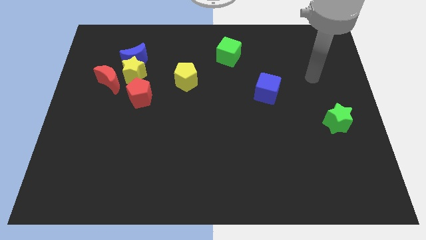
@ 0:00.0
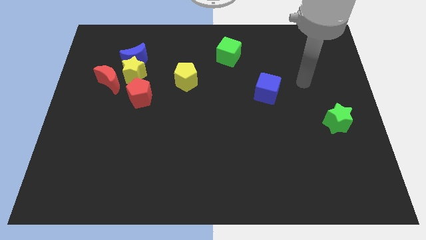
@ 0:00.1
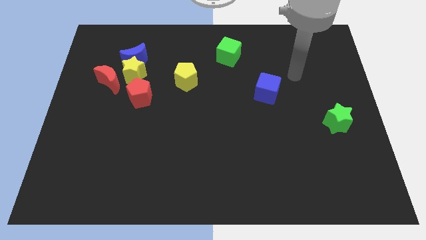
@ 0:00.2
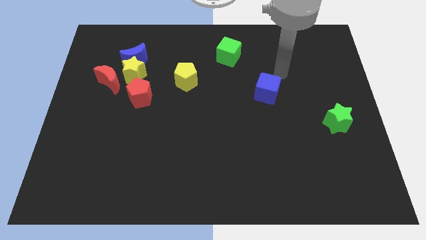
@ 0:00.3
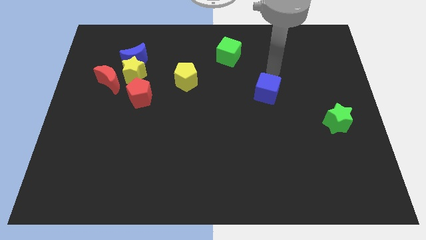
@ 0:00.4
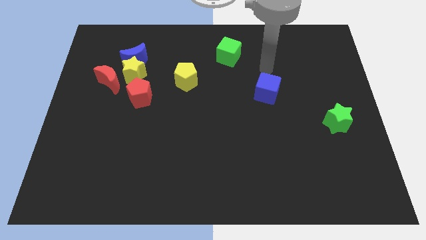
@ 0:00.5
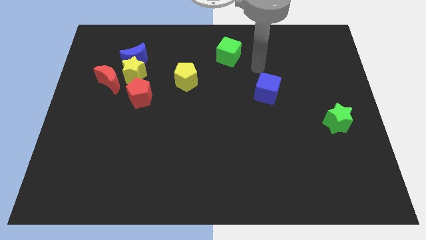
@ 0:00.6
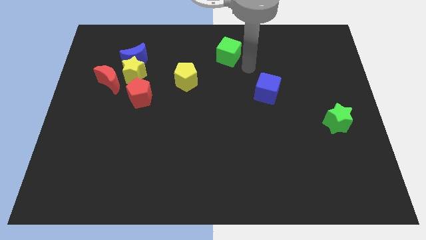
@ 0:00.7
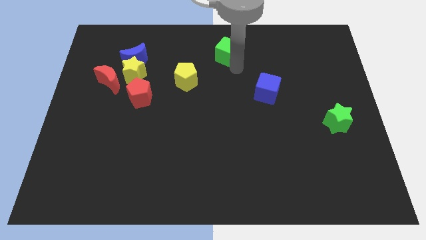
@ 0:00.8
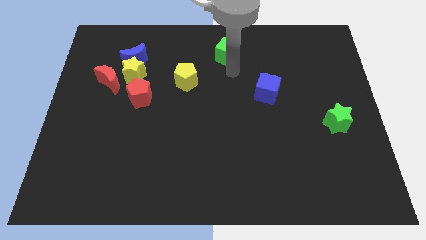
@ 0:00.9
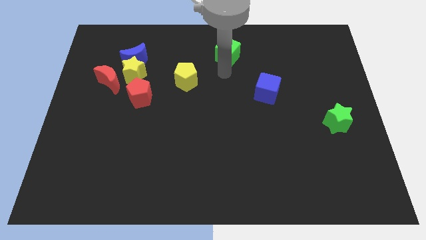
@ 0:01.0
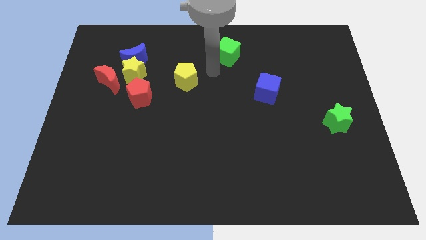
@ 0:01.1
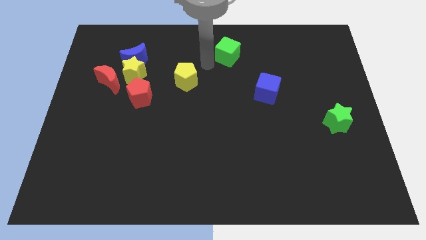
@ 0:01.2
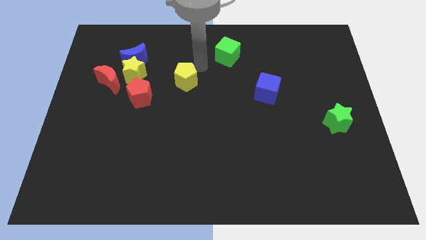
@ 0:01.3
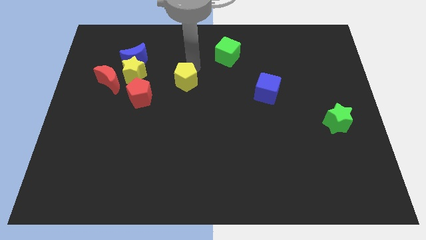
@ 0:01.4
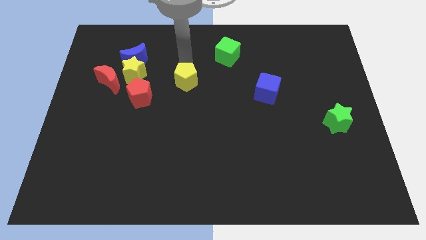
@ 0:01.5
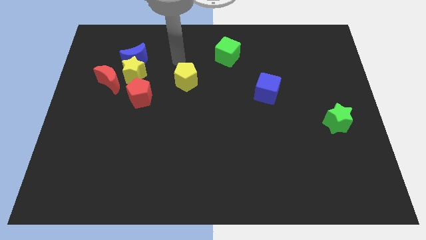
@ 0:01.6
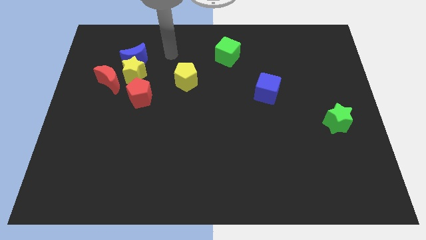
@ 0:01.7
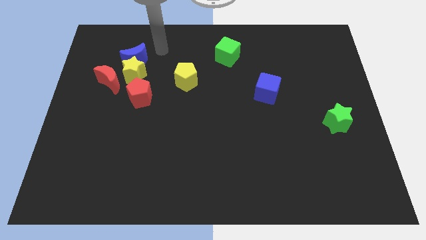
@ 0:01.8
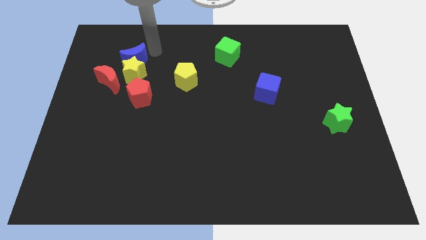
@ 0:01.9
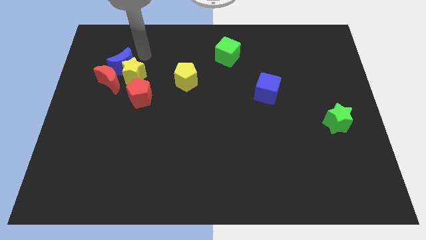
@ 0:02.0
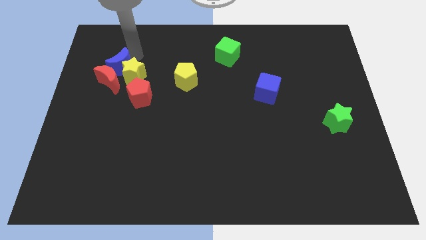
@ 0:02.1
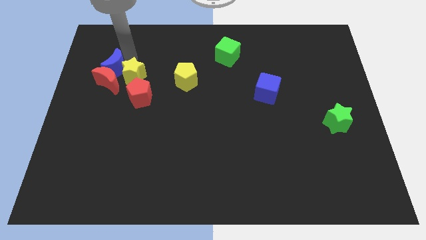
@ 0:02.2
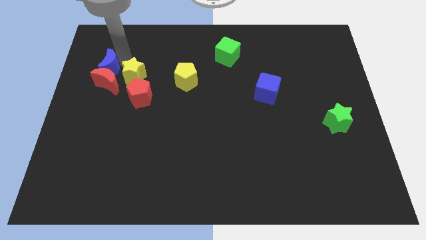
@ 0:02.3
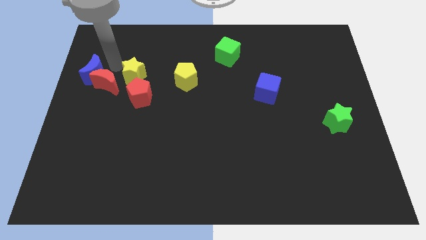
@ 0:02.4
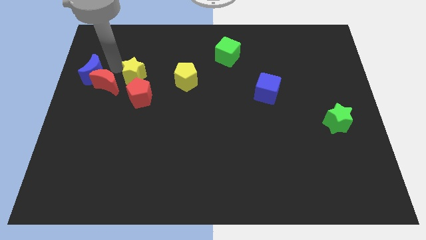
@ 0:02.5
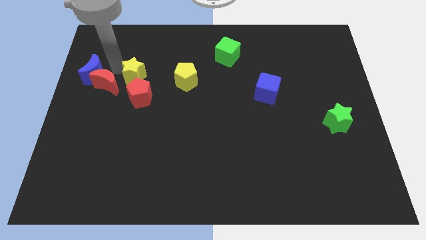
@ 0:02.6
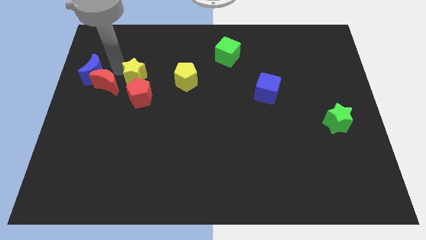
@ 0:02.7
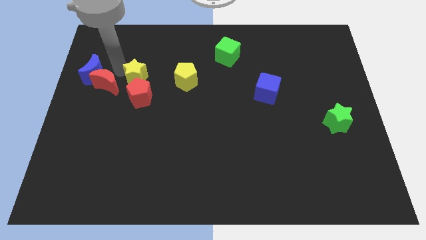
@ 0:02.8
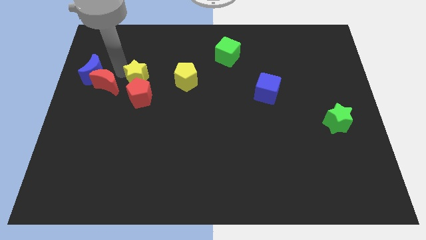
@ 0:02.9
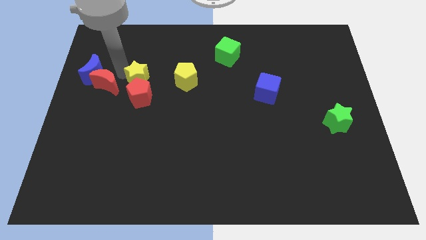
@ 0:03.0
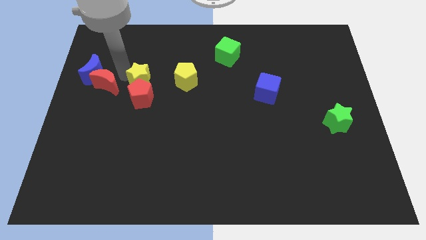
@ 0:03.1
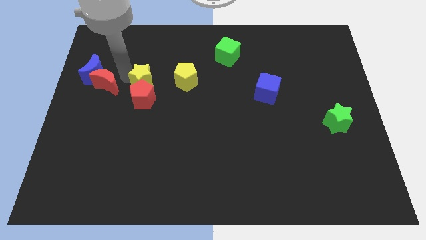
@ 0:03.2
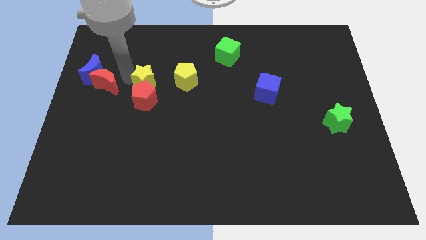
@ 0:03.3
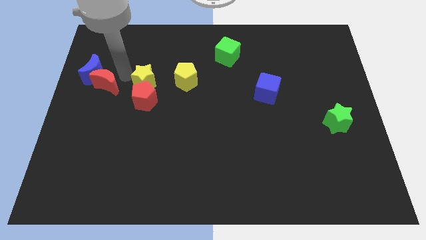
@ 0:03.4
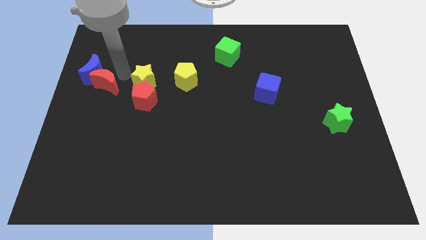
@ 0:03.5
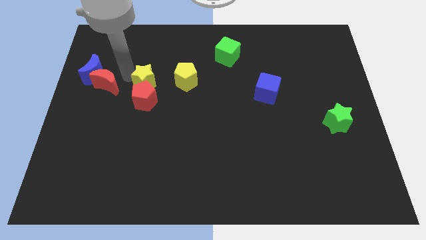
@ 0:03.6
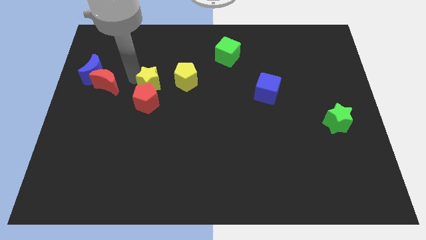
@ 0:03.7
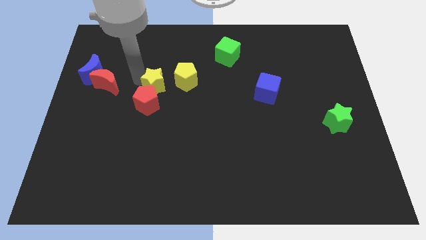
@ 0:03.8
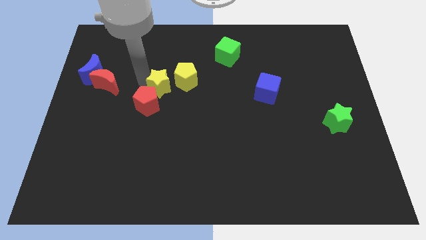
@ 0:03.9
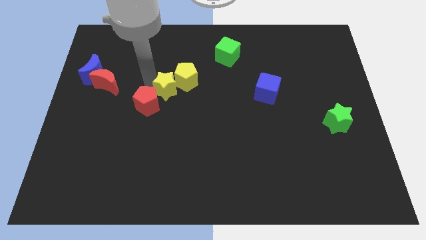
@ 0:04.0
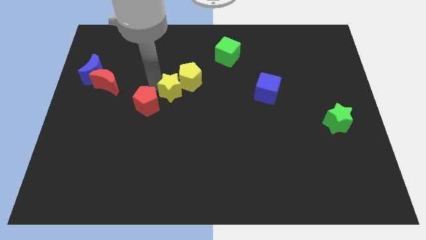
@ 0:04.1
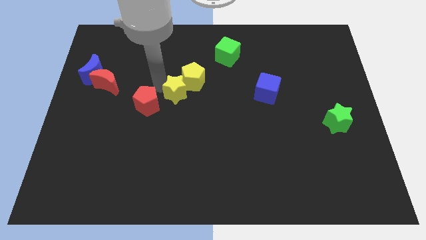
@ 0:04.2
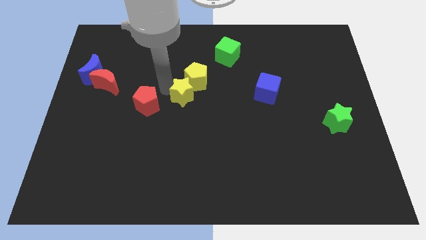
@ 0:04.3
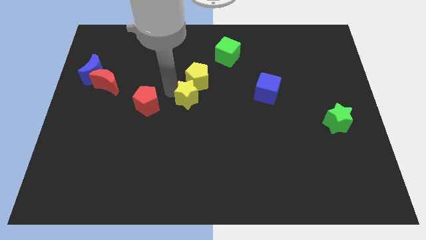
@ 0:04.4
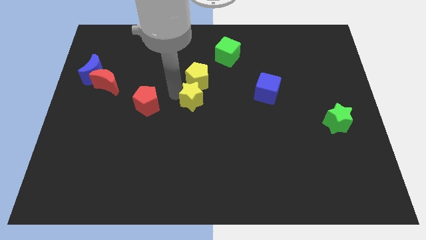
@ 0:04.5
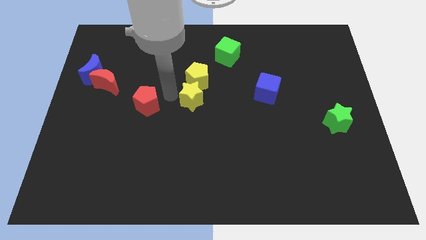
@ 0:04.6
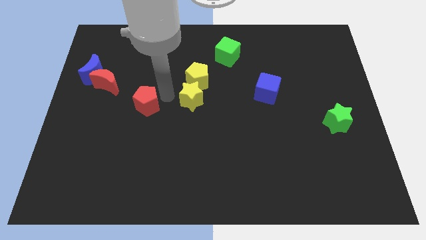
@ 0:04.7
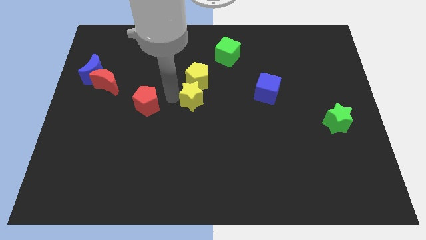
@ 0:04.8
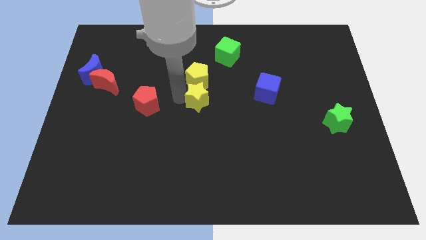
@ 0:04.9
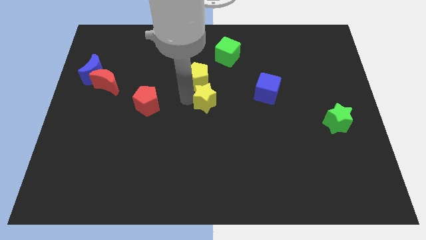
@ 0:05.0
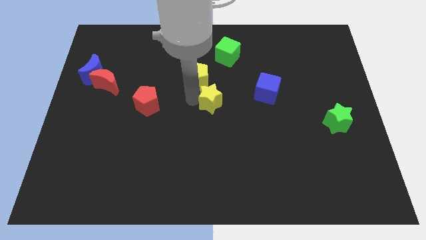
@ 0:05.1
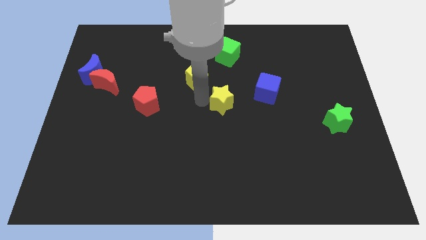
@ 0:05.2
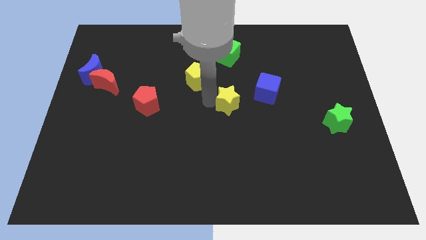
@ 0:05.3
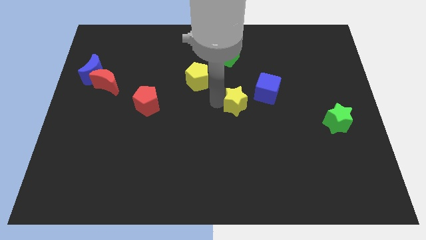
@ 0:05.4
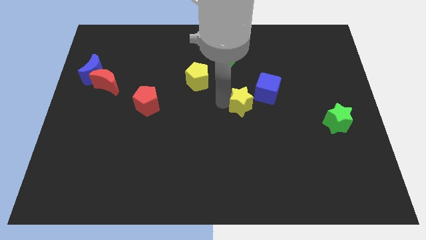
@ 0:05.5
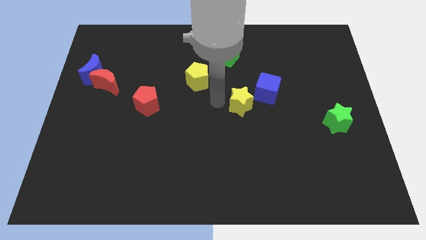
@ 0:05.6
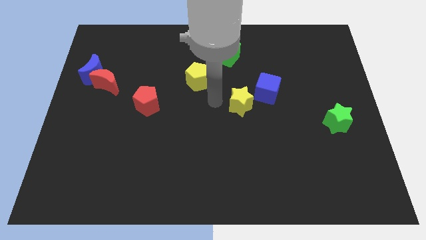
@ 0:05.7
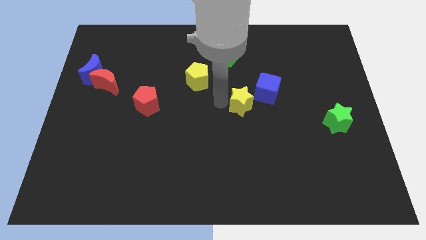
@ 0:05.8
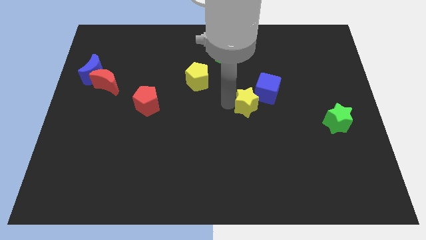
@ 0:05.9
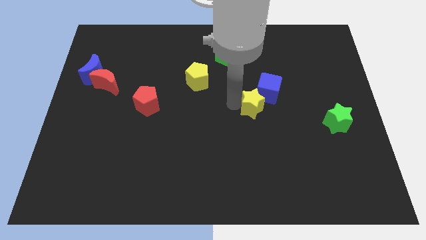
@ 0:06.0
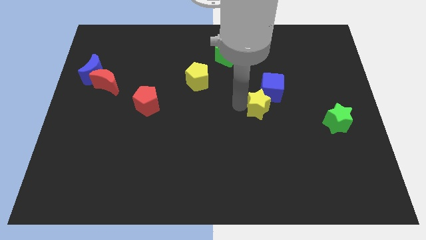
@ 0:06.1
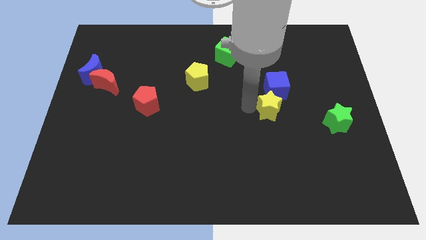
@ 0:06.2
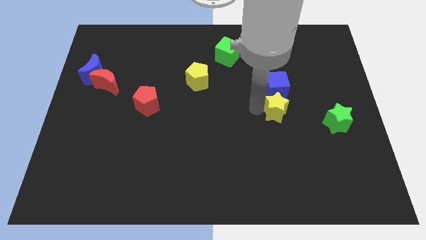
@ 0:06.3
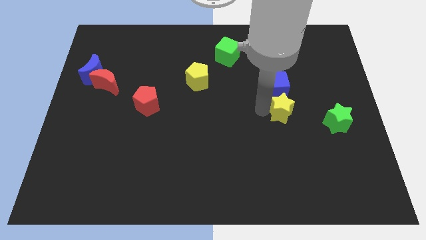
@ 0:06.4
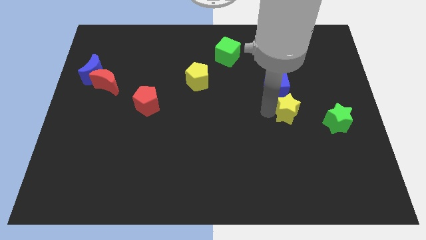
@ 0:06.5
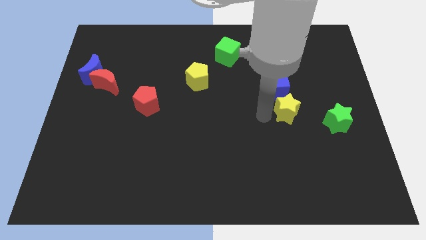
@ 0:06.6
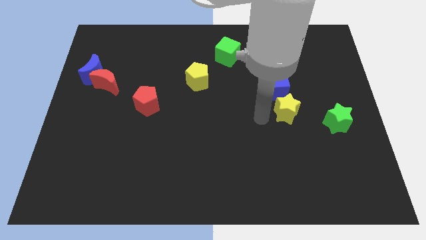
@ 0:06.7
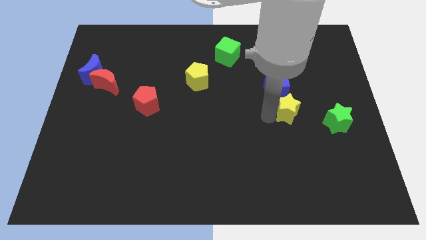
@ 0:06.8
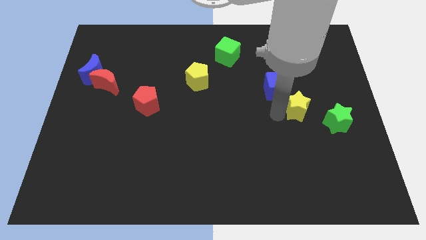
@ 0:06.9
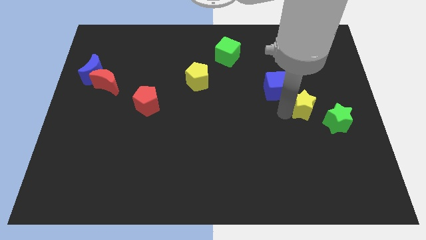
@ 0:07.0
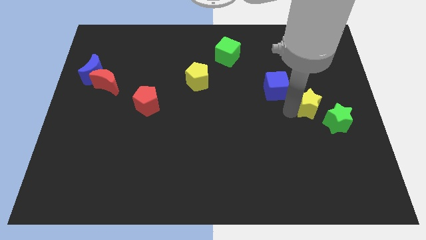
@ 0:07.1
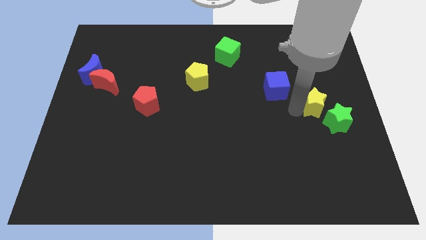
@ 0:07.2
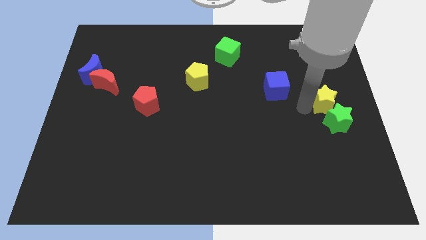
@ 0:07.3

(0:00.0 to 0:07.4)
put the yellow star to the right side

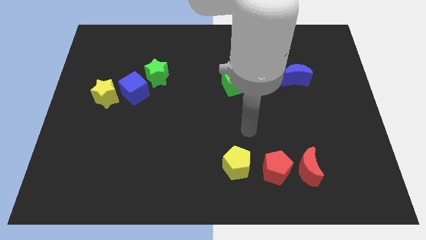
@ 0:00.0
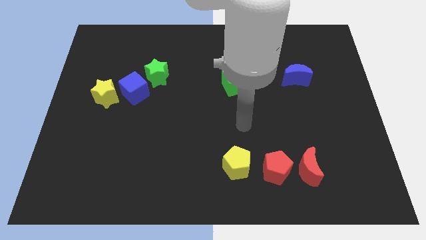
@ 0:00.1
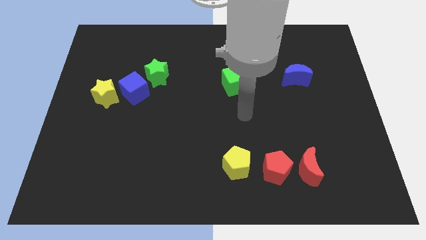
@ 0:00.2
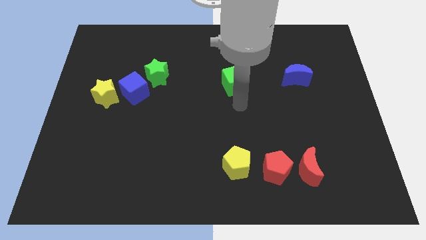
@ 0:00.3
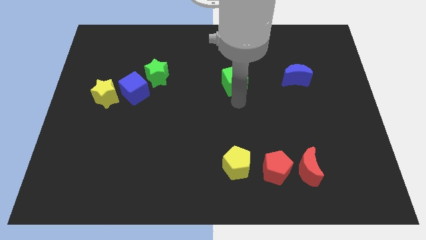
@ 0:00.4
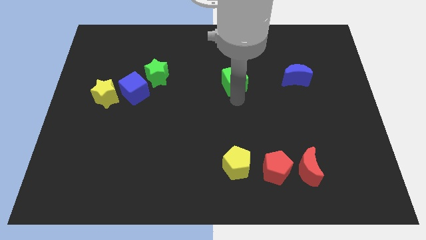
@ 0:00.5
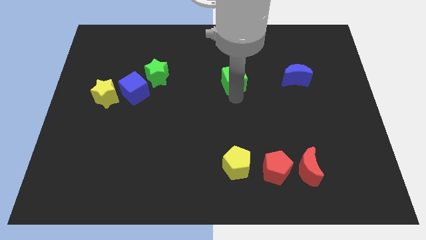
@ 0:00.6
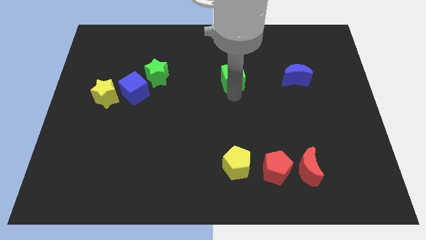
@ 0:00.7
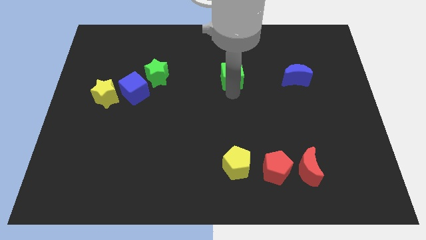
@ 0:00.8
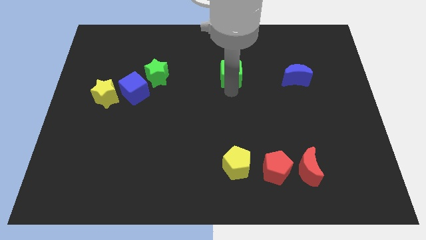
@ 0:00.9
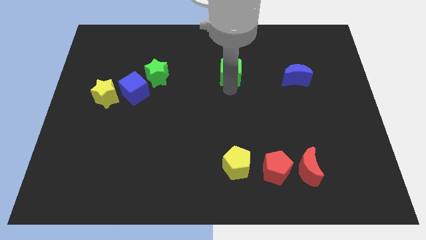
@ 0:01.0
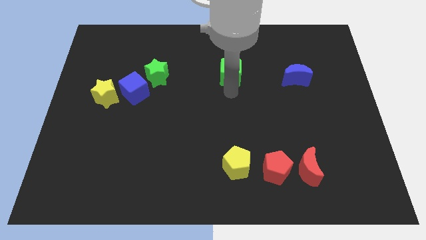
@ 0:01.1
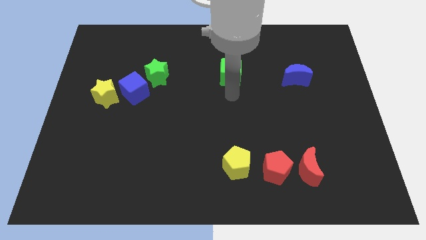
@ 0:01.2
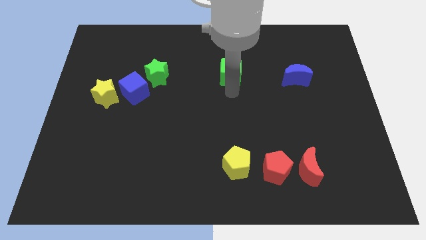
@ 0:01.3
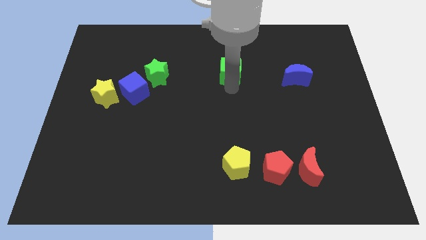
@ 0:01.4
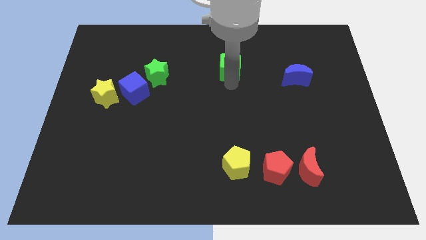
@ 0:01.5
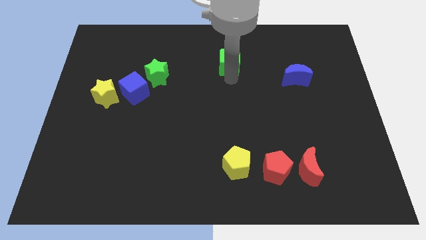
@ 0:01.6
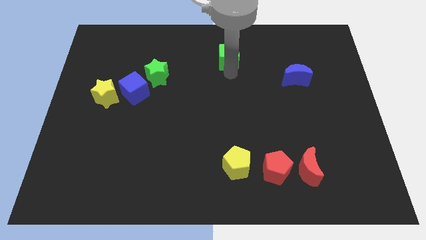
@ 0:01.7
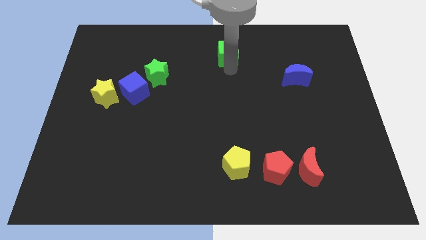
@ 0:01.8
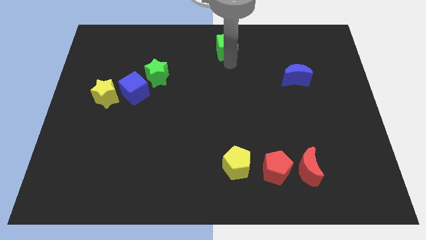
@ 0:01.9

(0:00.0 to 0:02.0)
move the green cube to the top
